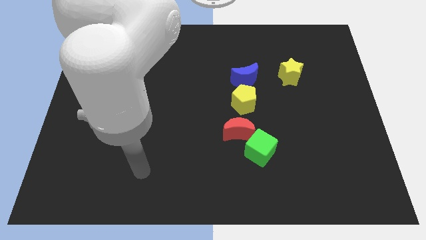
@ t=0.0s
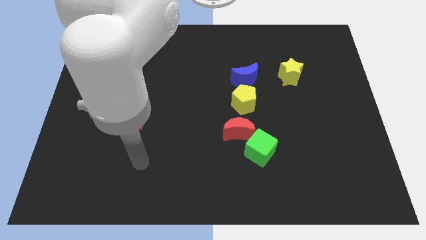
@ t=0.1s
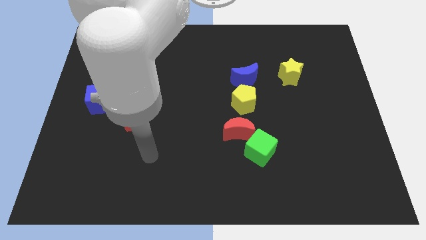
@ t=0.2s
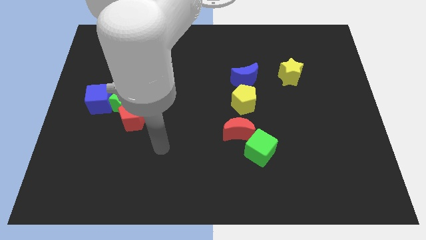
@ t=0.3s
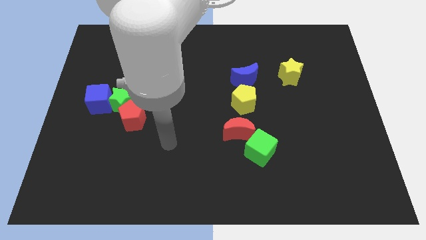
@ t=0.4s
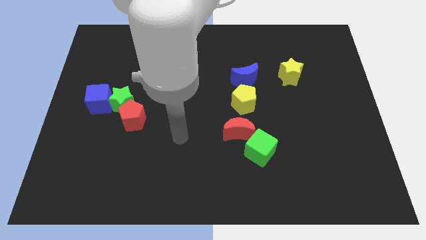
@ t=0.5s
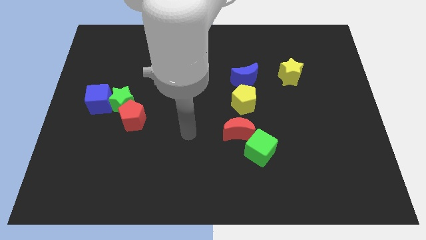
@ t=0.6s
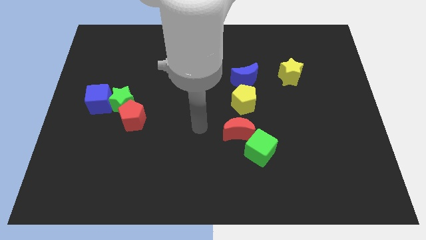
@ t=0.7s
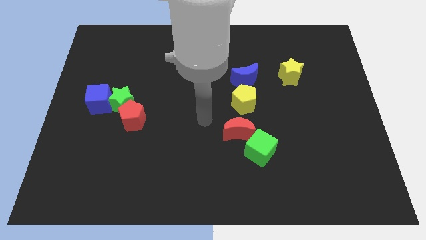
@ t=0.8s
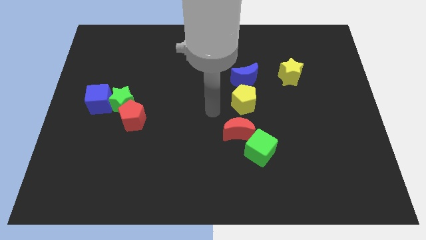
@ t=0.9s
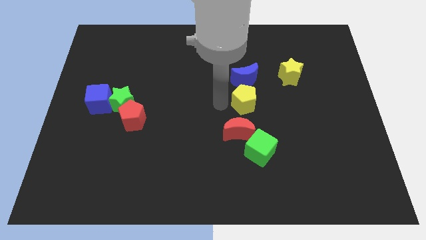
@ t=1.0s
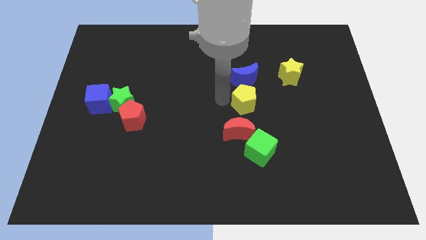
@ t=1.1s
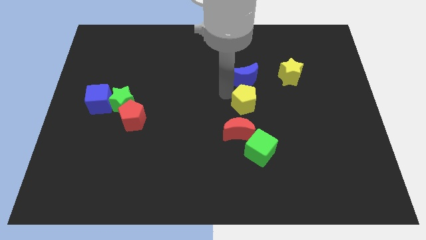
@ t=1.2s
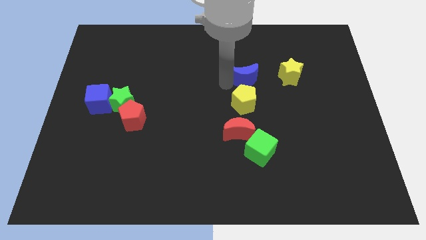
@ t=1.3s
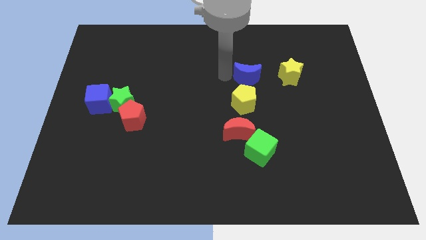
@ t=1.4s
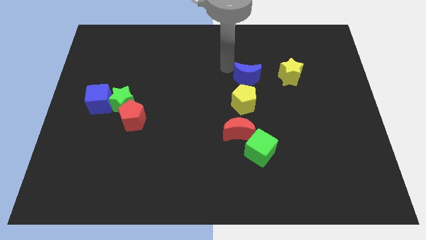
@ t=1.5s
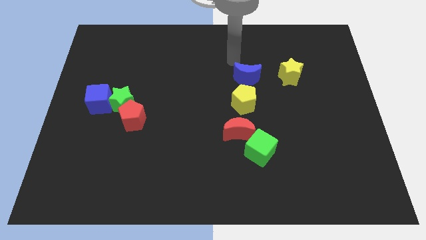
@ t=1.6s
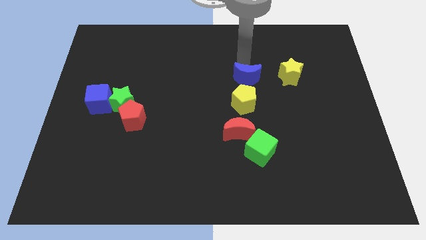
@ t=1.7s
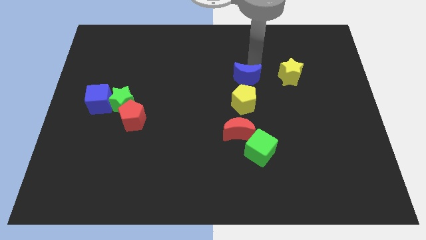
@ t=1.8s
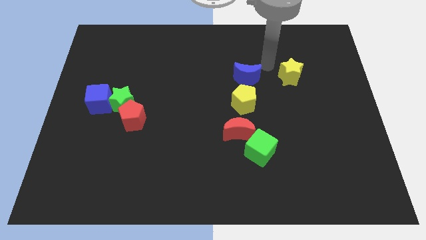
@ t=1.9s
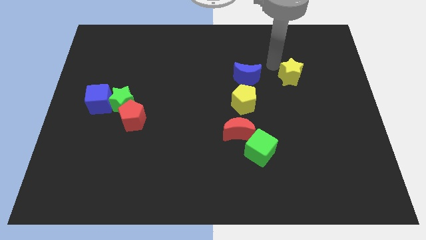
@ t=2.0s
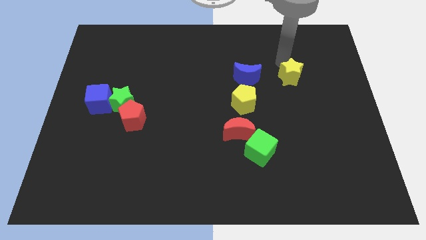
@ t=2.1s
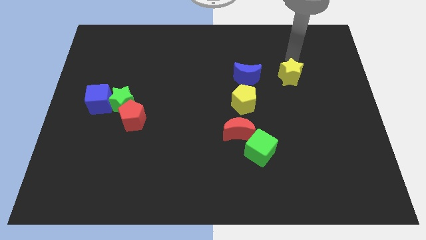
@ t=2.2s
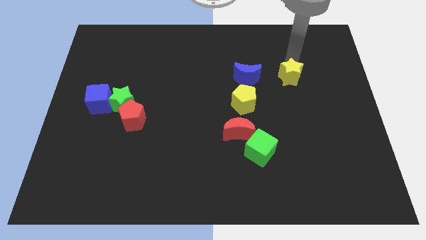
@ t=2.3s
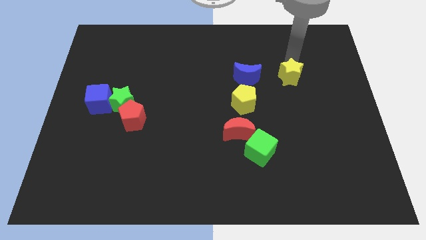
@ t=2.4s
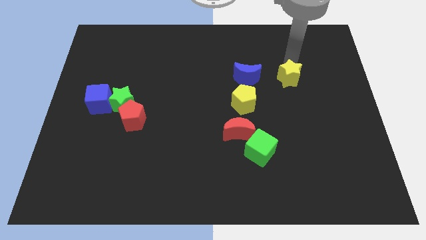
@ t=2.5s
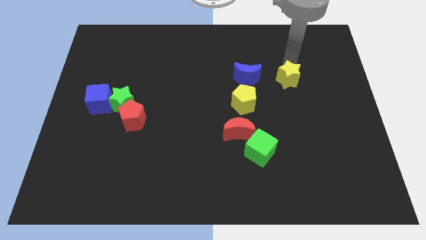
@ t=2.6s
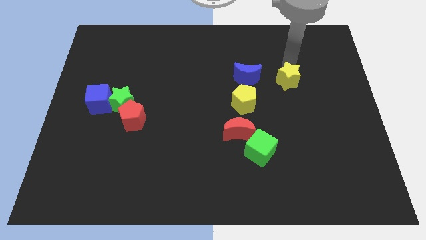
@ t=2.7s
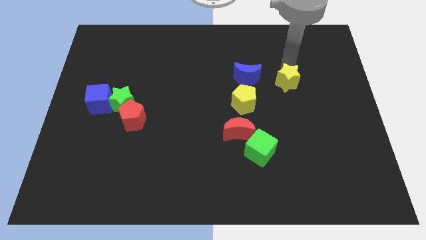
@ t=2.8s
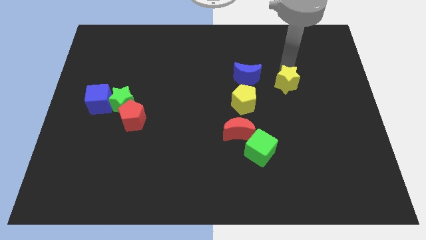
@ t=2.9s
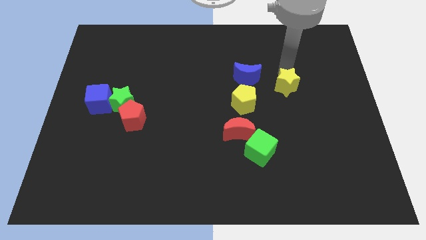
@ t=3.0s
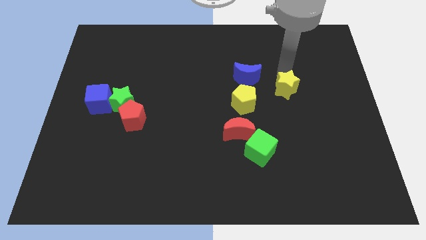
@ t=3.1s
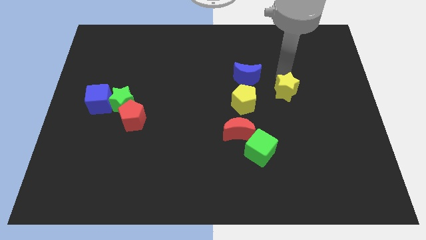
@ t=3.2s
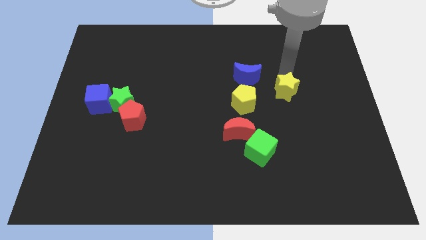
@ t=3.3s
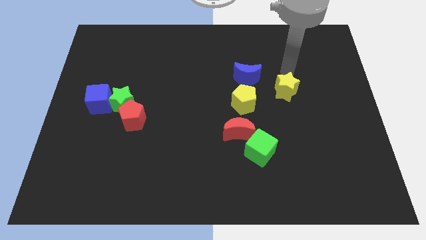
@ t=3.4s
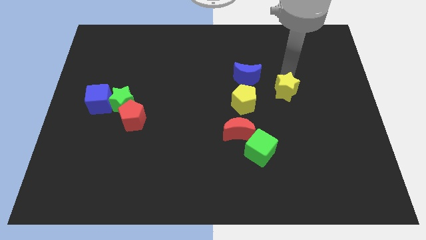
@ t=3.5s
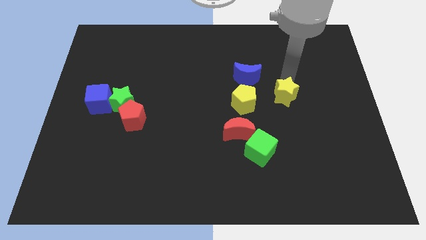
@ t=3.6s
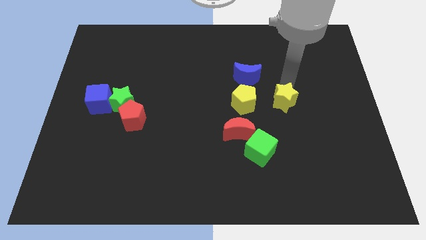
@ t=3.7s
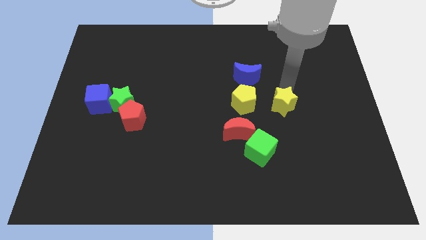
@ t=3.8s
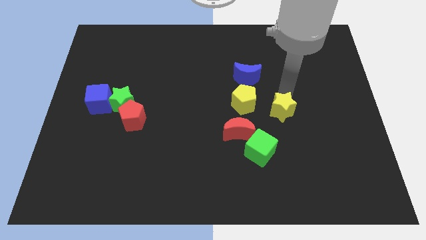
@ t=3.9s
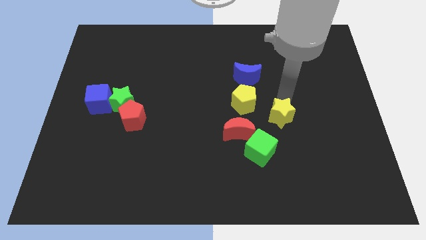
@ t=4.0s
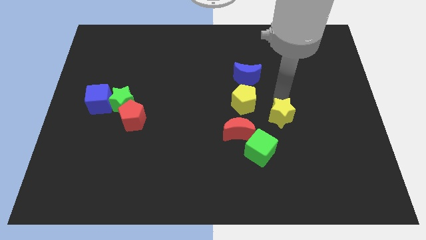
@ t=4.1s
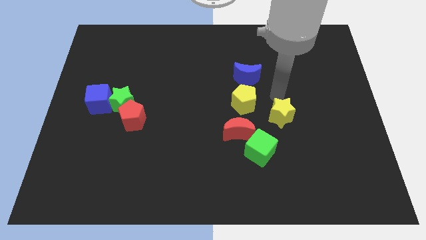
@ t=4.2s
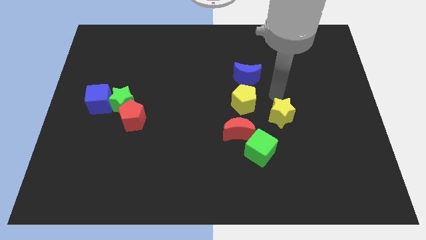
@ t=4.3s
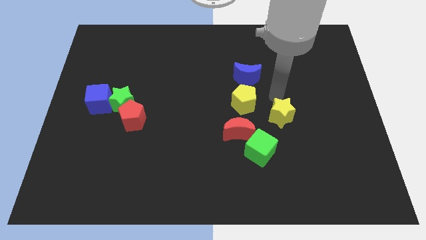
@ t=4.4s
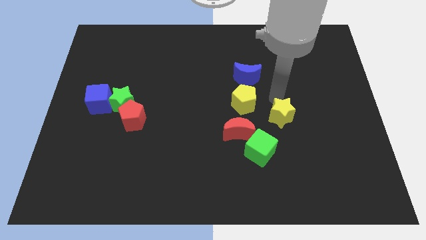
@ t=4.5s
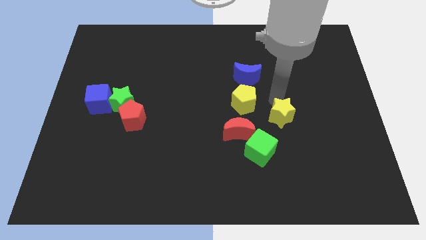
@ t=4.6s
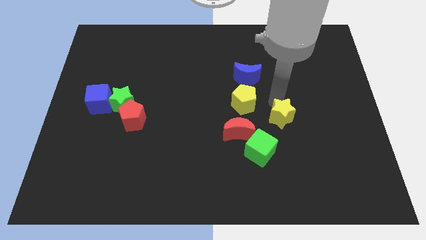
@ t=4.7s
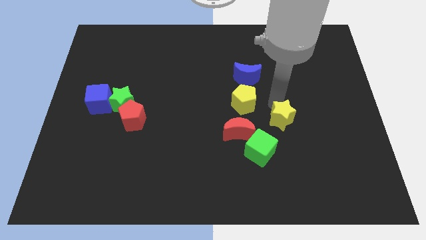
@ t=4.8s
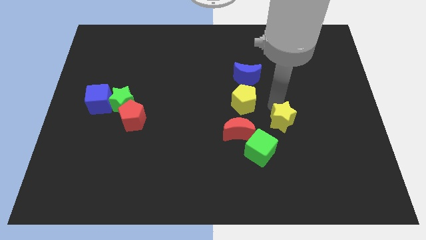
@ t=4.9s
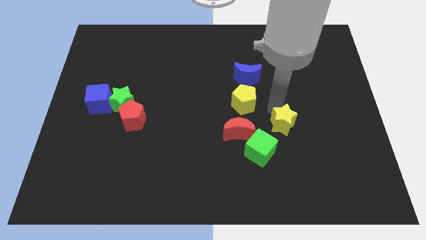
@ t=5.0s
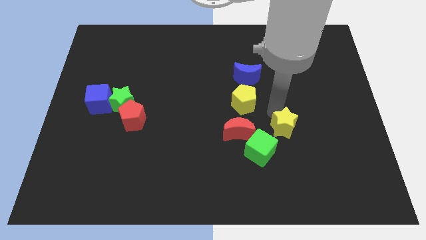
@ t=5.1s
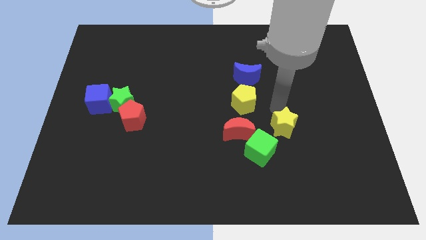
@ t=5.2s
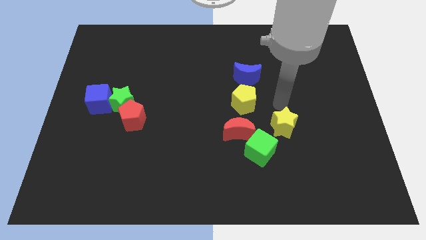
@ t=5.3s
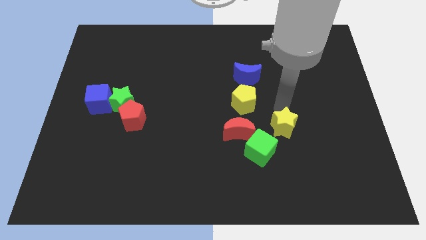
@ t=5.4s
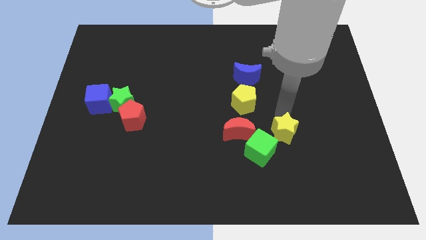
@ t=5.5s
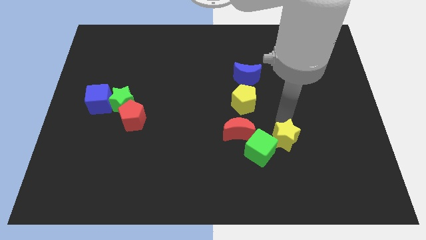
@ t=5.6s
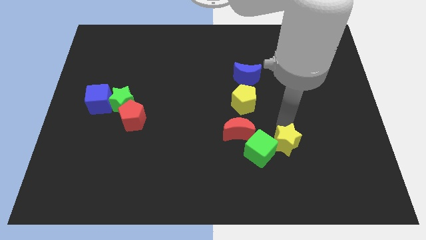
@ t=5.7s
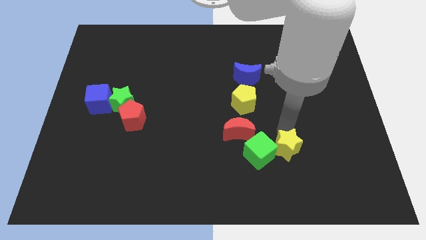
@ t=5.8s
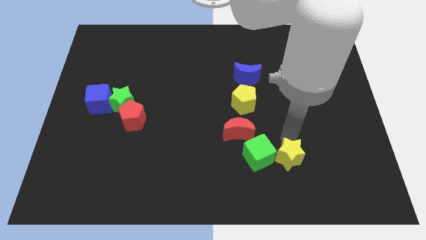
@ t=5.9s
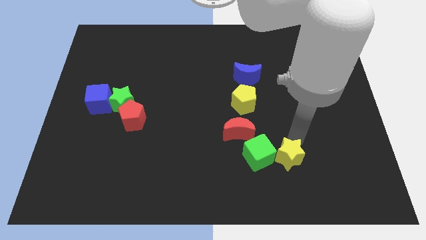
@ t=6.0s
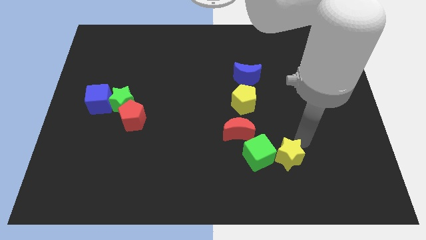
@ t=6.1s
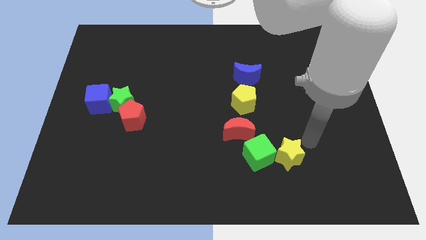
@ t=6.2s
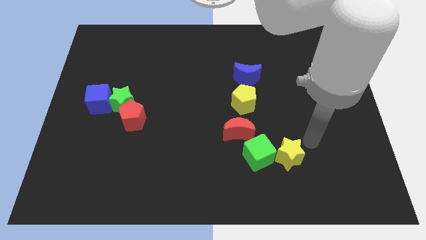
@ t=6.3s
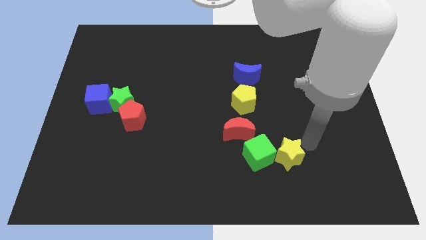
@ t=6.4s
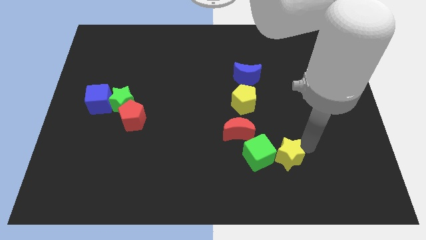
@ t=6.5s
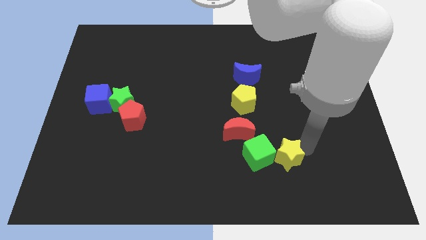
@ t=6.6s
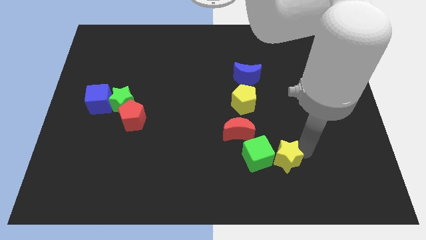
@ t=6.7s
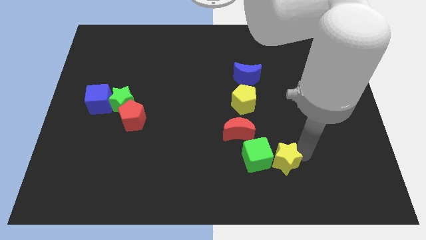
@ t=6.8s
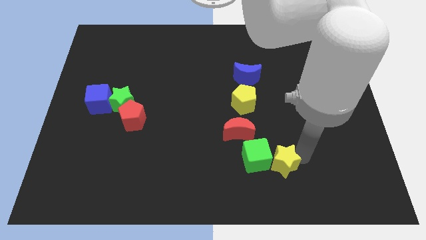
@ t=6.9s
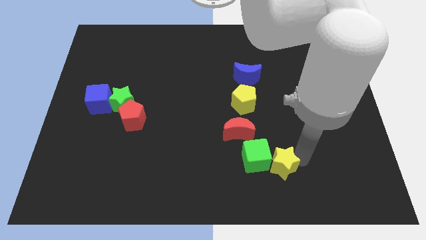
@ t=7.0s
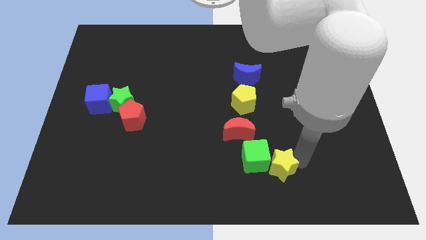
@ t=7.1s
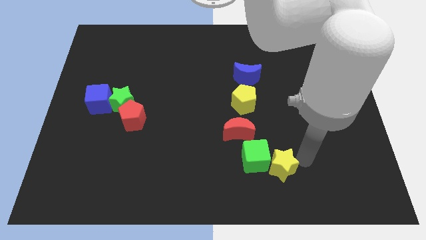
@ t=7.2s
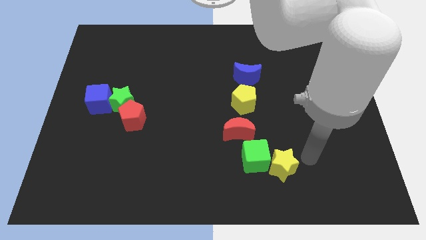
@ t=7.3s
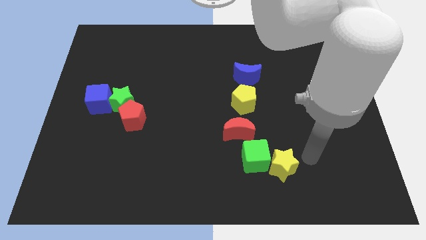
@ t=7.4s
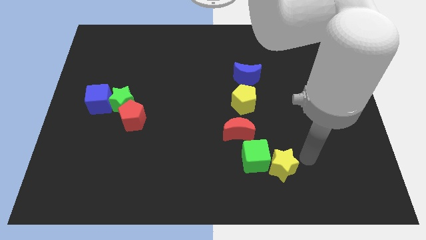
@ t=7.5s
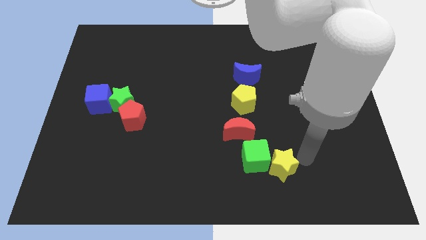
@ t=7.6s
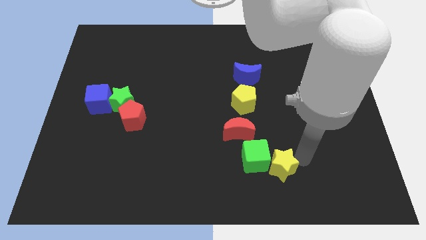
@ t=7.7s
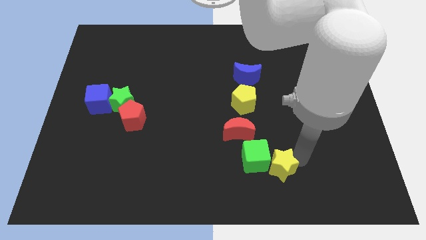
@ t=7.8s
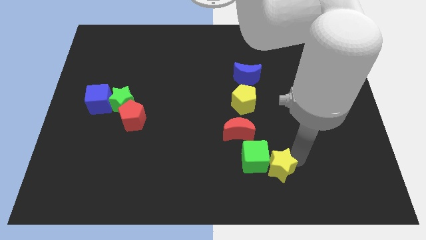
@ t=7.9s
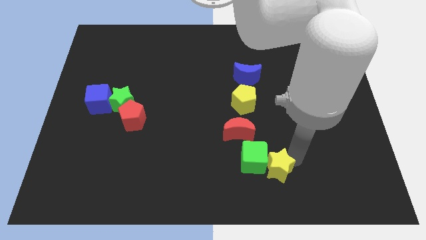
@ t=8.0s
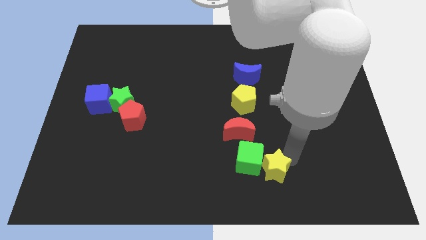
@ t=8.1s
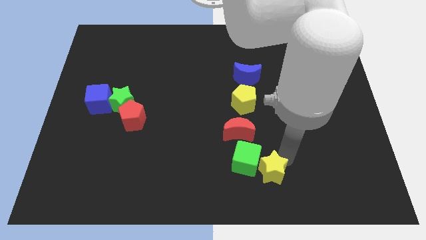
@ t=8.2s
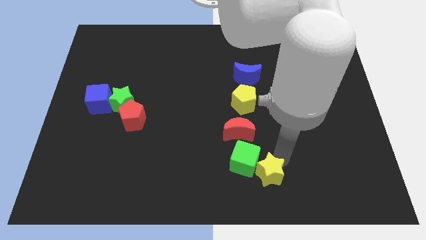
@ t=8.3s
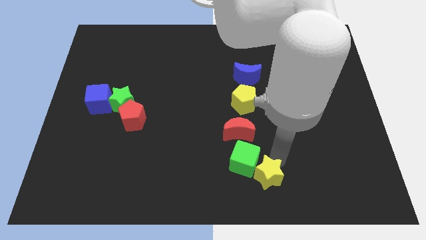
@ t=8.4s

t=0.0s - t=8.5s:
move the yellow star to the bottom side

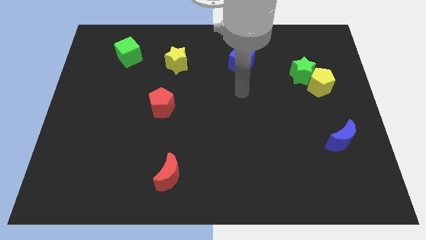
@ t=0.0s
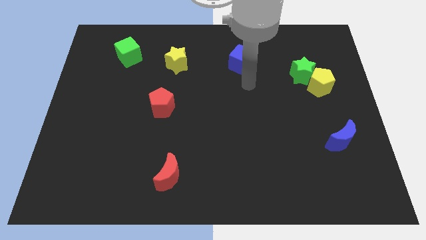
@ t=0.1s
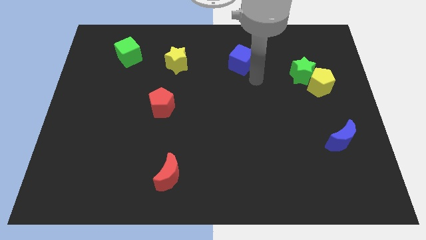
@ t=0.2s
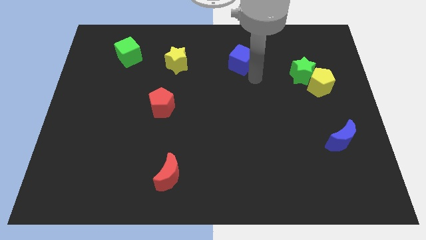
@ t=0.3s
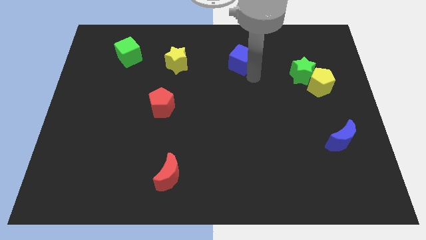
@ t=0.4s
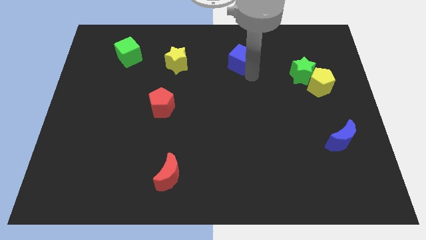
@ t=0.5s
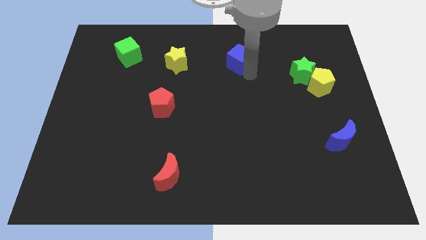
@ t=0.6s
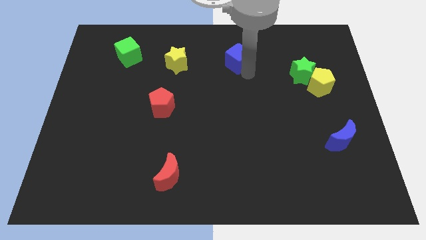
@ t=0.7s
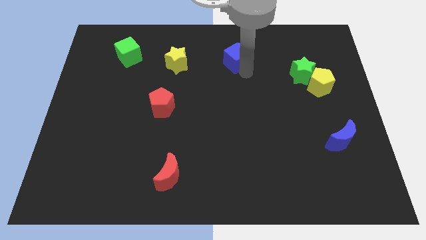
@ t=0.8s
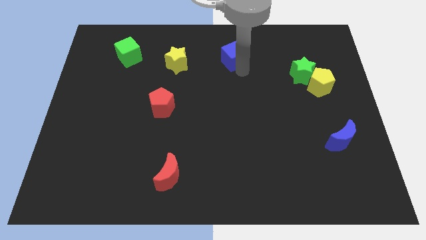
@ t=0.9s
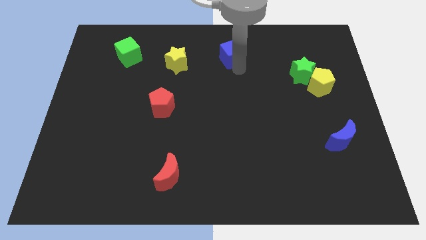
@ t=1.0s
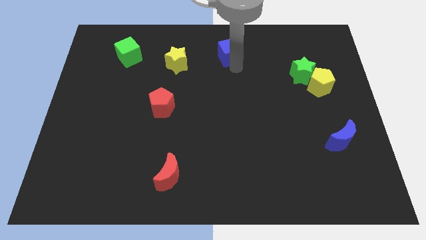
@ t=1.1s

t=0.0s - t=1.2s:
push the blue cube to the top
